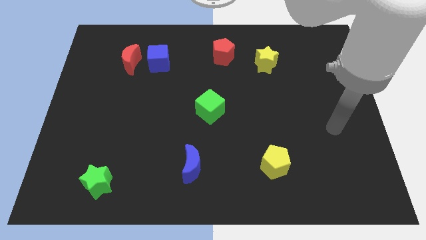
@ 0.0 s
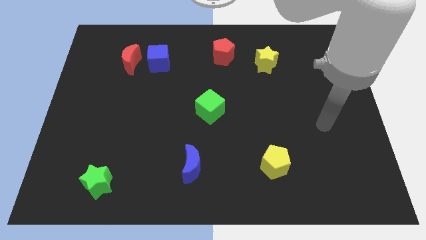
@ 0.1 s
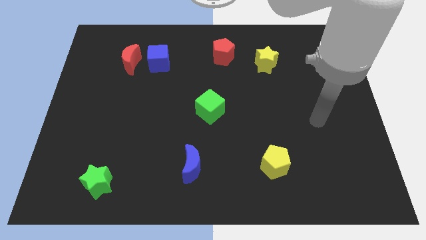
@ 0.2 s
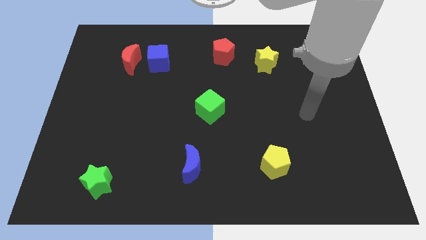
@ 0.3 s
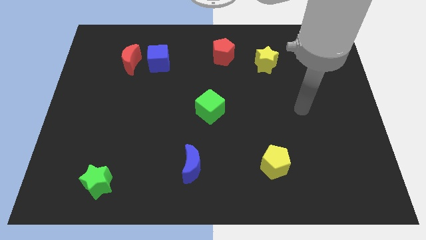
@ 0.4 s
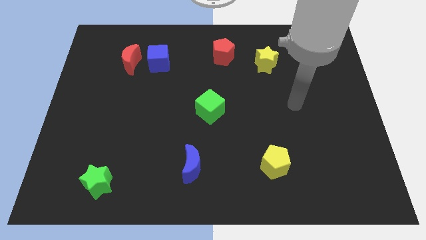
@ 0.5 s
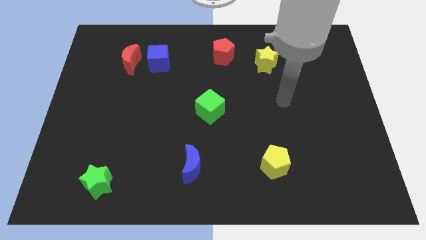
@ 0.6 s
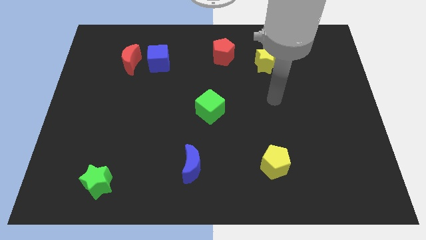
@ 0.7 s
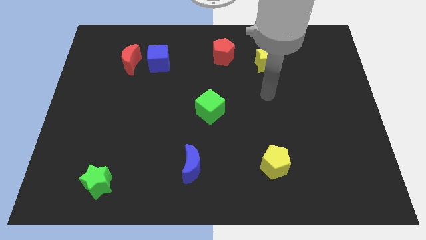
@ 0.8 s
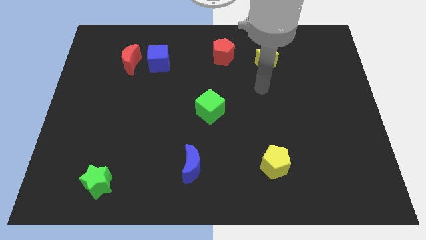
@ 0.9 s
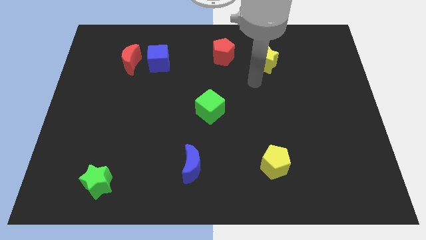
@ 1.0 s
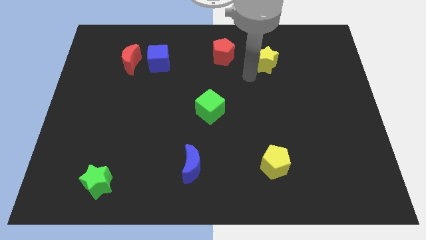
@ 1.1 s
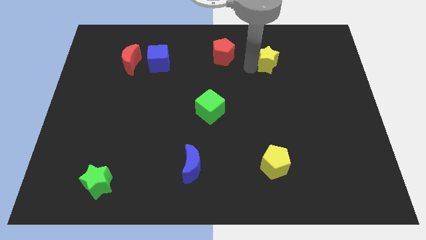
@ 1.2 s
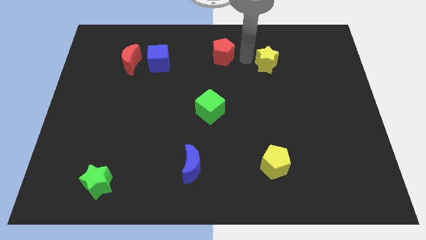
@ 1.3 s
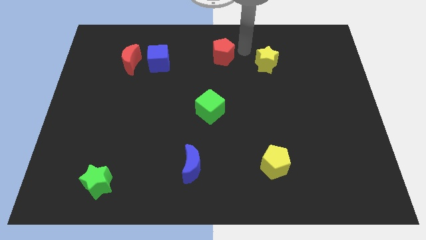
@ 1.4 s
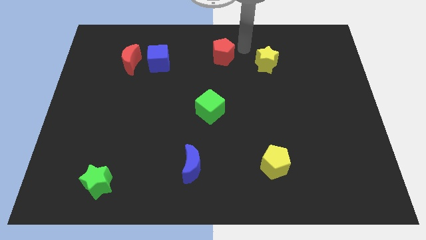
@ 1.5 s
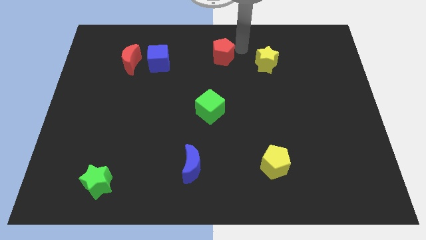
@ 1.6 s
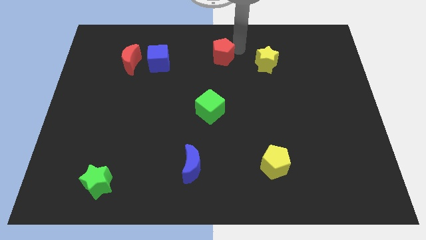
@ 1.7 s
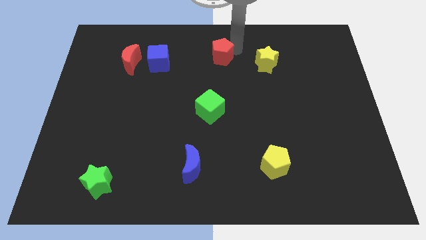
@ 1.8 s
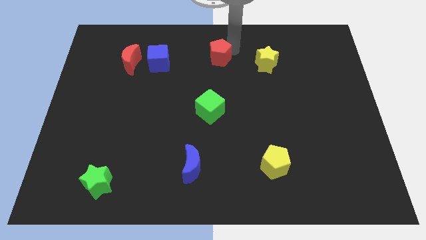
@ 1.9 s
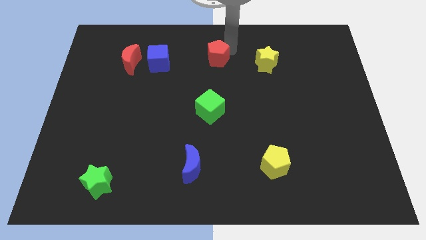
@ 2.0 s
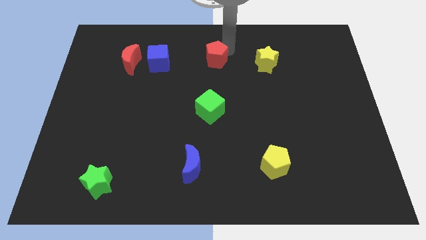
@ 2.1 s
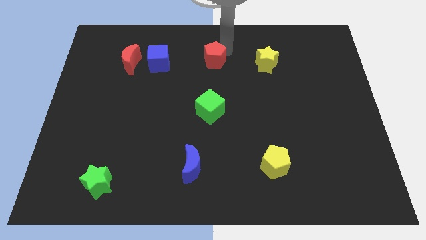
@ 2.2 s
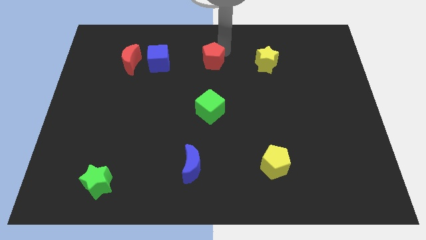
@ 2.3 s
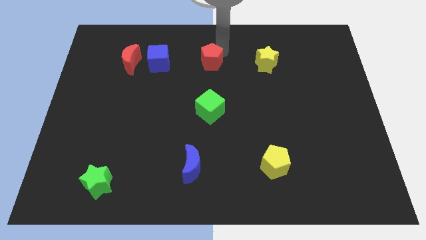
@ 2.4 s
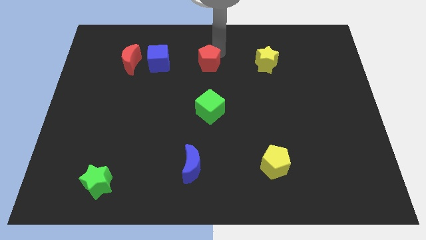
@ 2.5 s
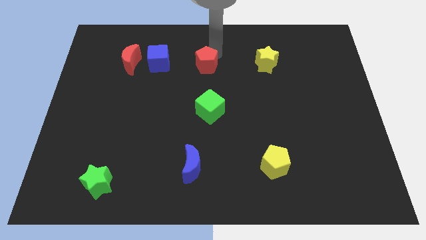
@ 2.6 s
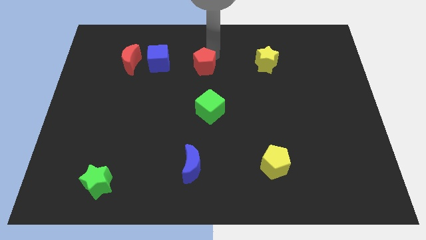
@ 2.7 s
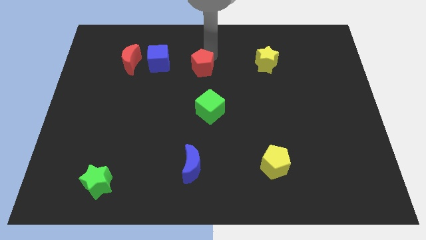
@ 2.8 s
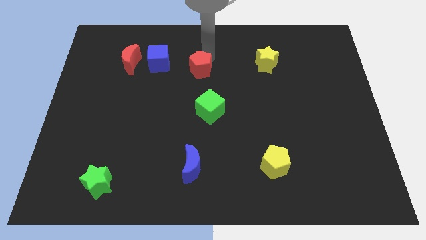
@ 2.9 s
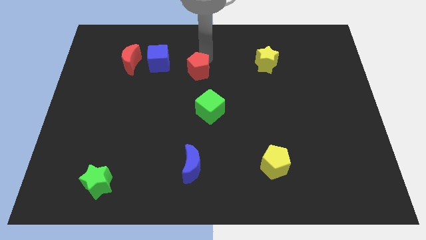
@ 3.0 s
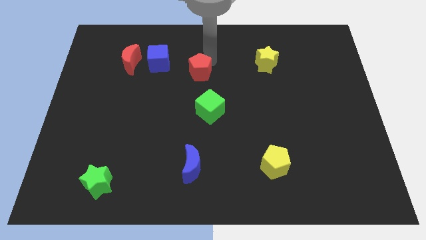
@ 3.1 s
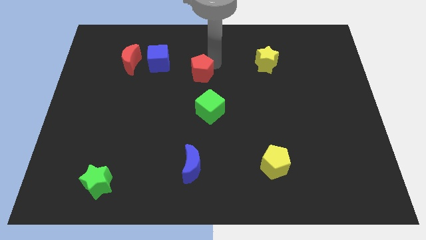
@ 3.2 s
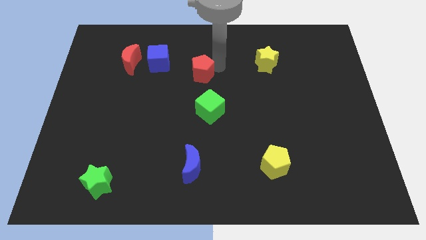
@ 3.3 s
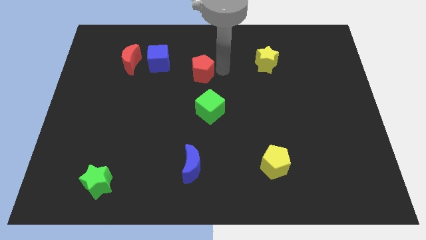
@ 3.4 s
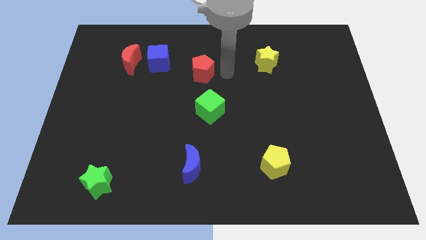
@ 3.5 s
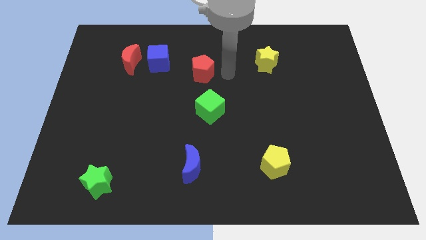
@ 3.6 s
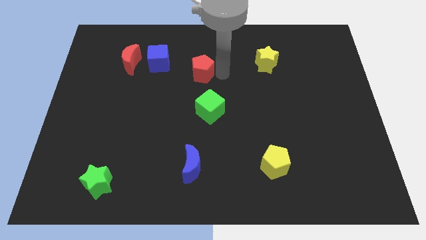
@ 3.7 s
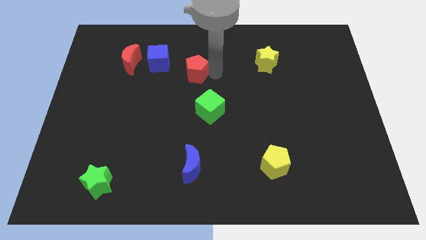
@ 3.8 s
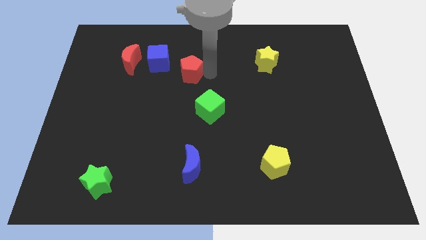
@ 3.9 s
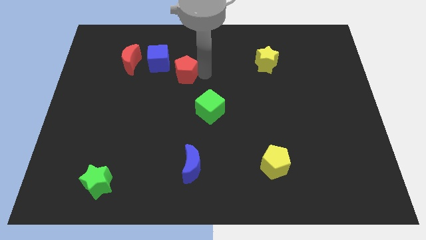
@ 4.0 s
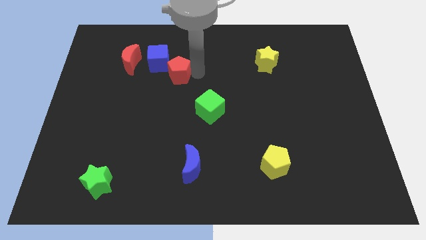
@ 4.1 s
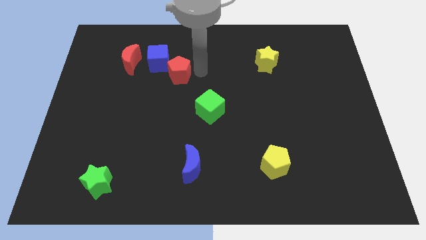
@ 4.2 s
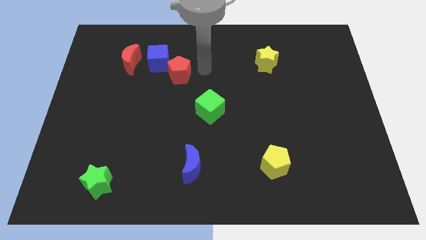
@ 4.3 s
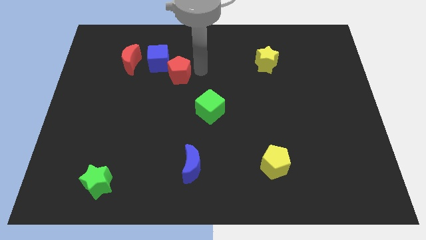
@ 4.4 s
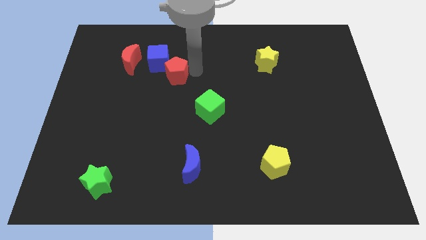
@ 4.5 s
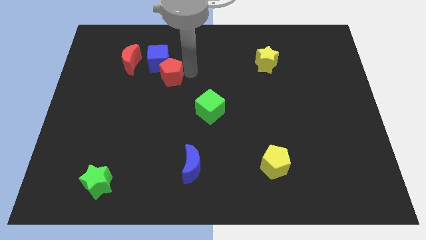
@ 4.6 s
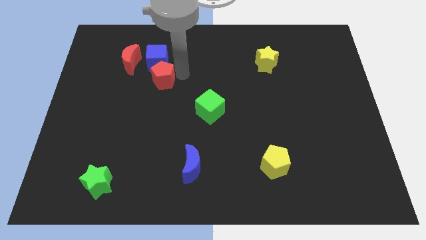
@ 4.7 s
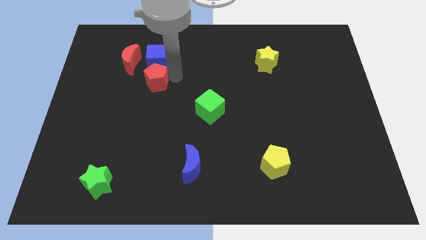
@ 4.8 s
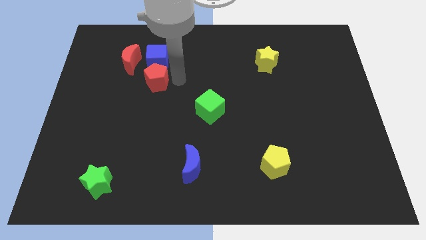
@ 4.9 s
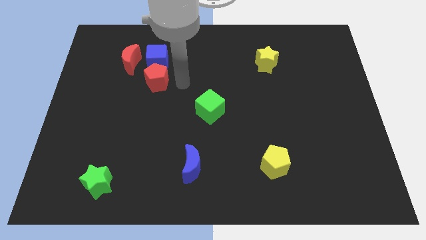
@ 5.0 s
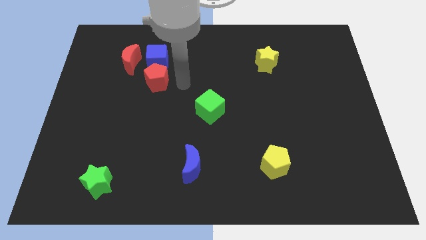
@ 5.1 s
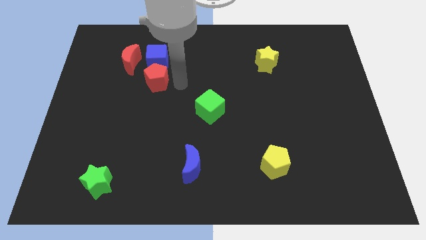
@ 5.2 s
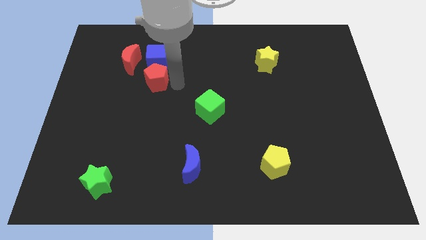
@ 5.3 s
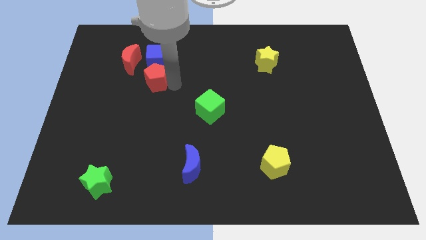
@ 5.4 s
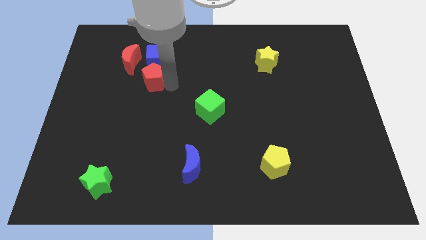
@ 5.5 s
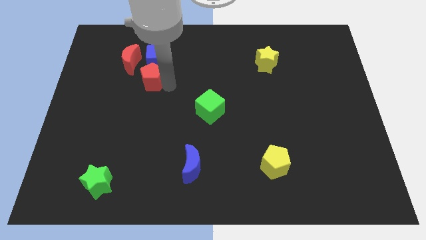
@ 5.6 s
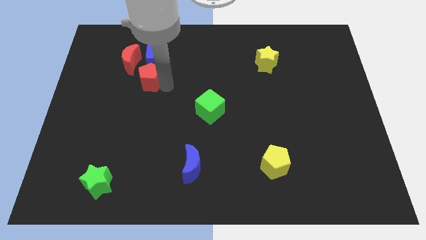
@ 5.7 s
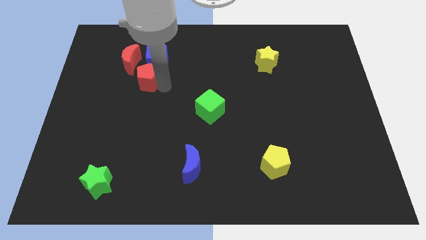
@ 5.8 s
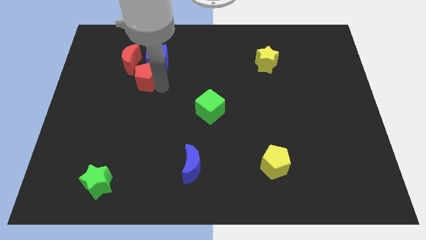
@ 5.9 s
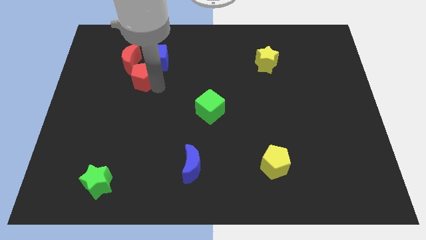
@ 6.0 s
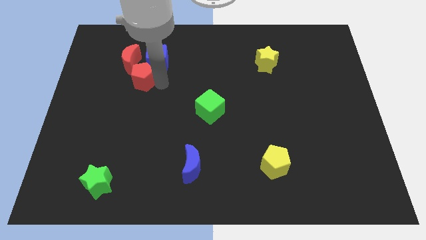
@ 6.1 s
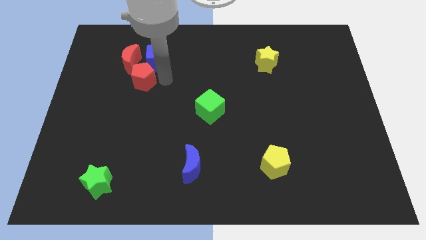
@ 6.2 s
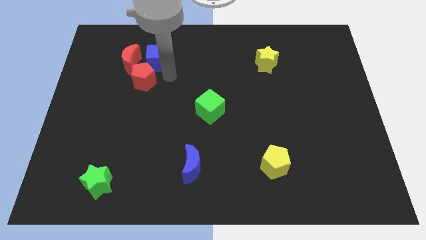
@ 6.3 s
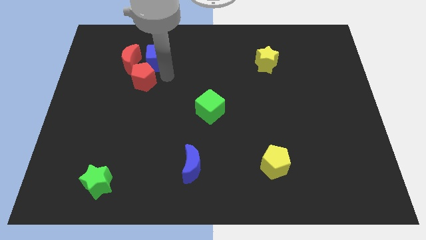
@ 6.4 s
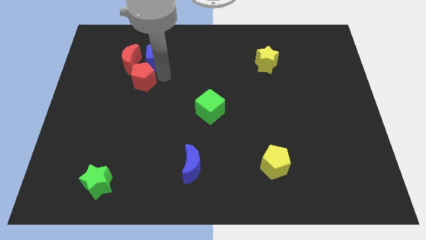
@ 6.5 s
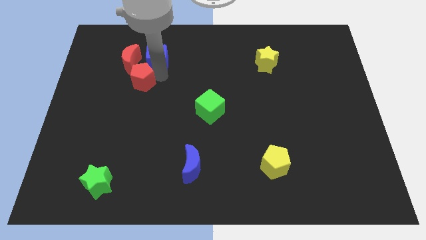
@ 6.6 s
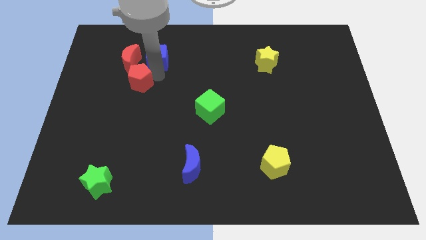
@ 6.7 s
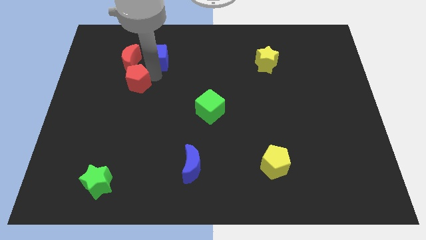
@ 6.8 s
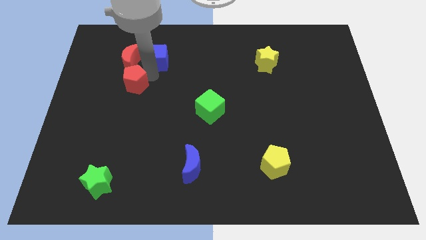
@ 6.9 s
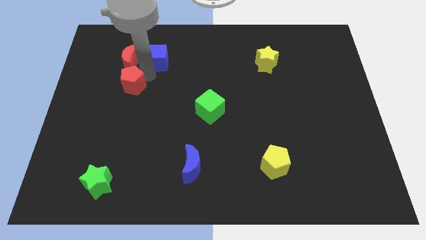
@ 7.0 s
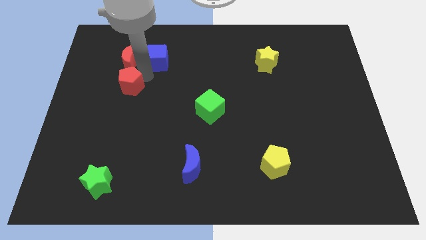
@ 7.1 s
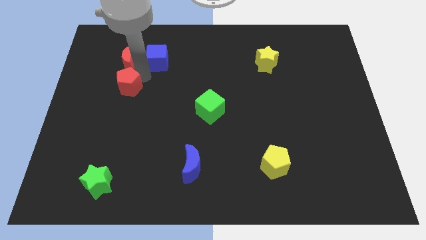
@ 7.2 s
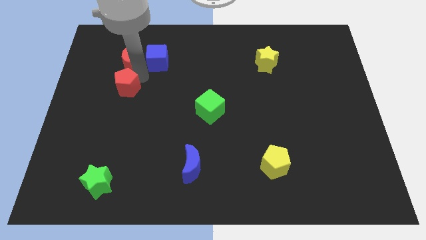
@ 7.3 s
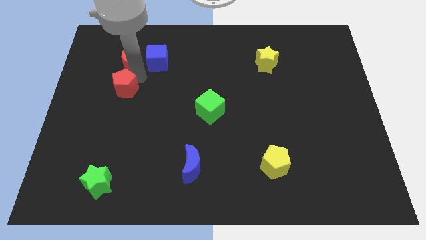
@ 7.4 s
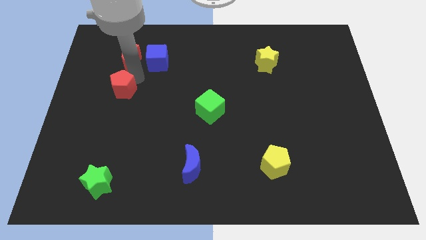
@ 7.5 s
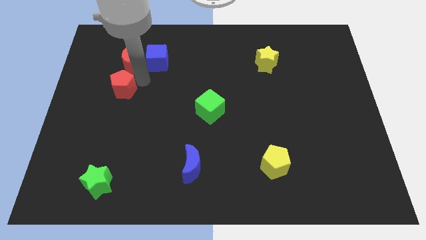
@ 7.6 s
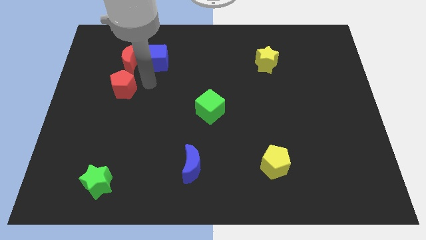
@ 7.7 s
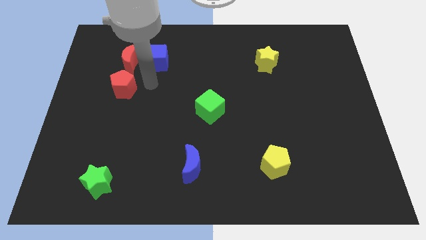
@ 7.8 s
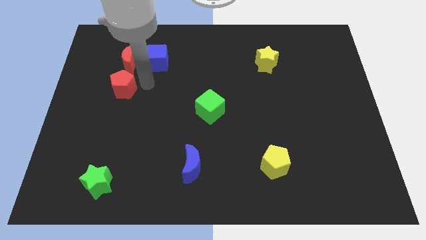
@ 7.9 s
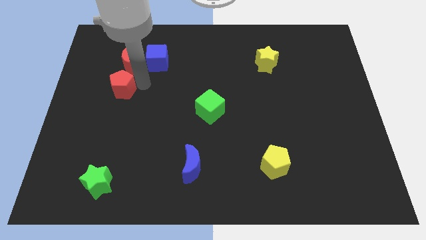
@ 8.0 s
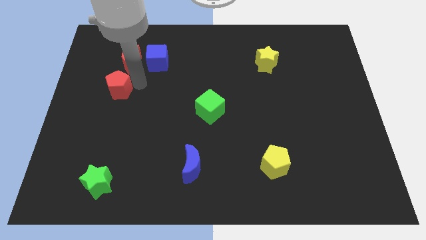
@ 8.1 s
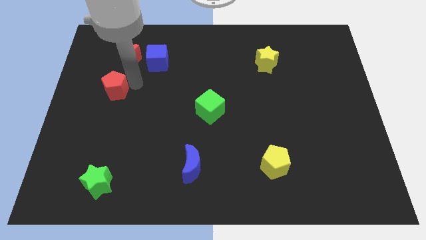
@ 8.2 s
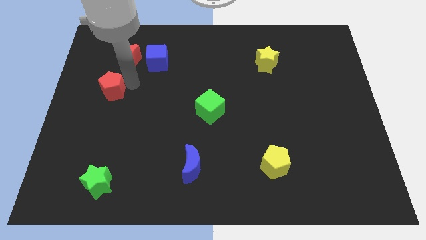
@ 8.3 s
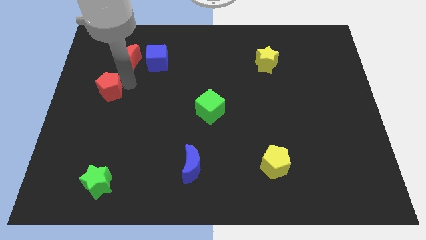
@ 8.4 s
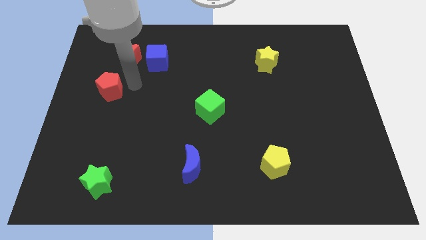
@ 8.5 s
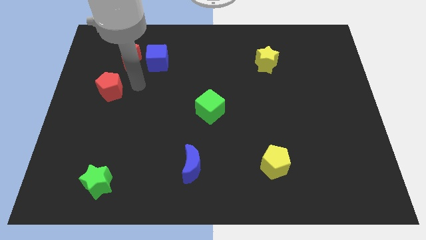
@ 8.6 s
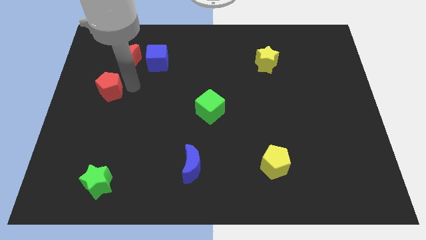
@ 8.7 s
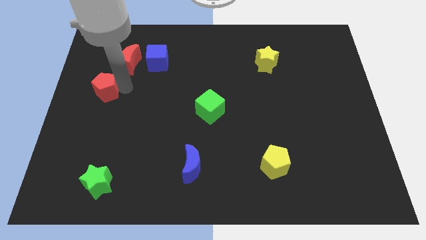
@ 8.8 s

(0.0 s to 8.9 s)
push the red pentagon to the left side of the board
